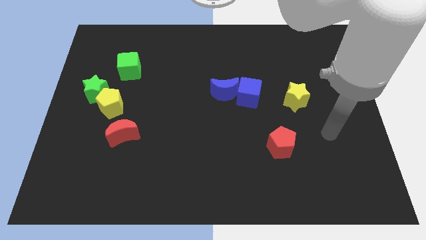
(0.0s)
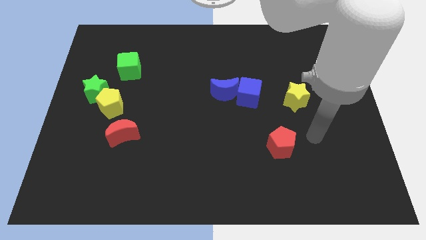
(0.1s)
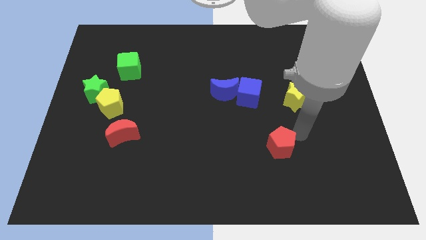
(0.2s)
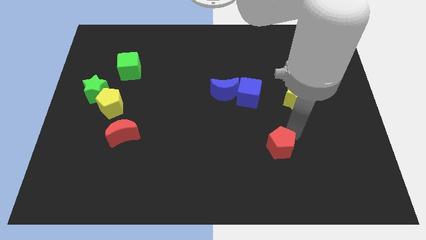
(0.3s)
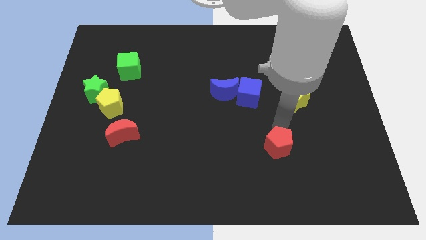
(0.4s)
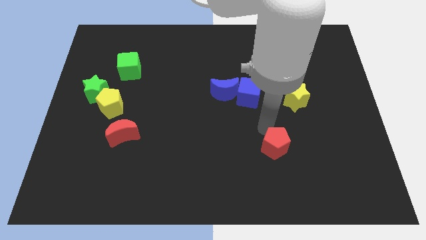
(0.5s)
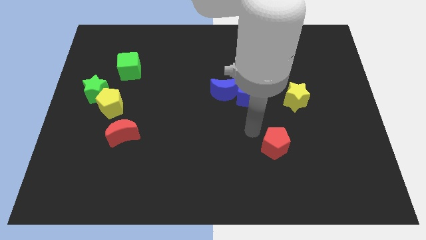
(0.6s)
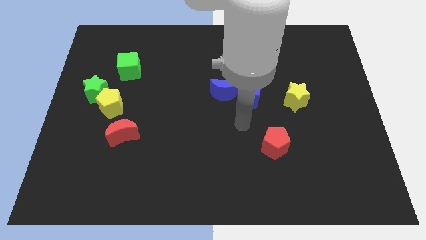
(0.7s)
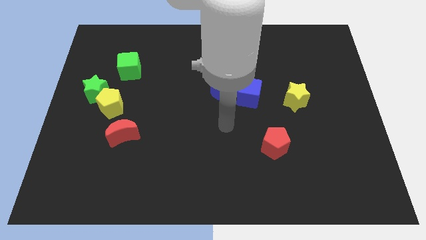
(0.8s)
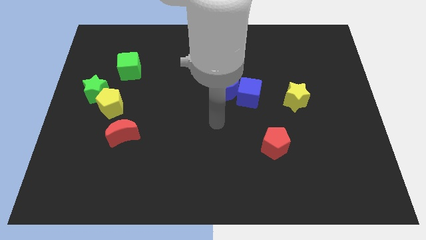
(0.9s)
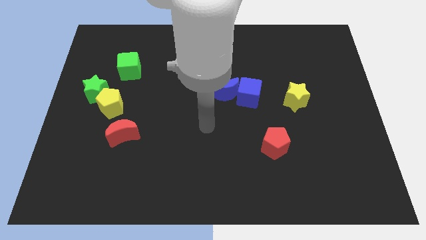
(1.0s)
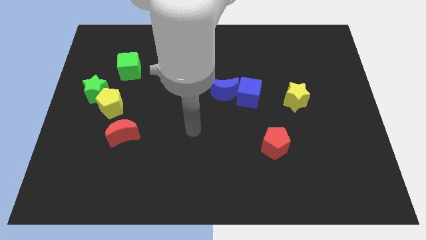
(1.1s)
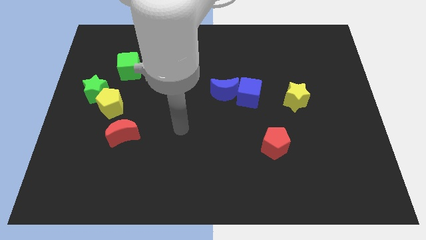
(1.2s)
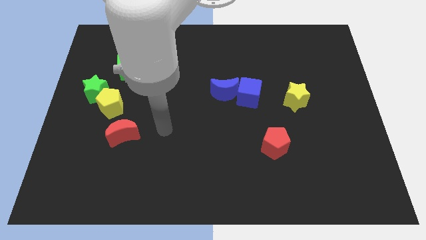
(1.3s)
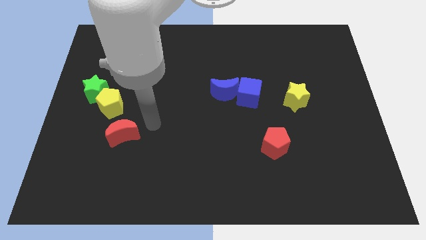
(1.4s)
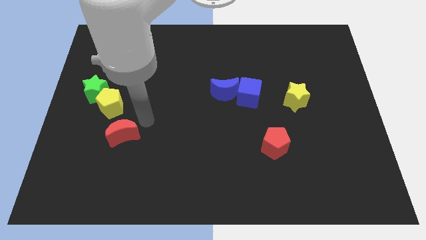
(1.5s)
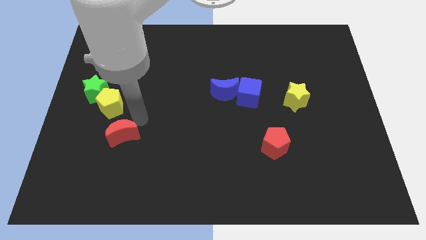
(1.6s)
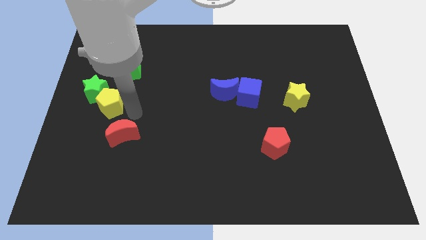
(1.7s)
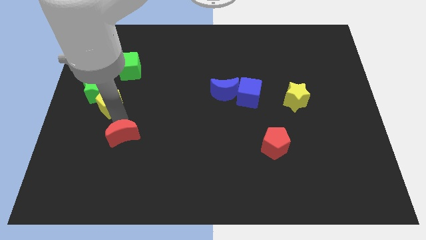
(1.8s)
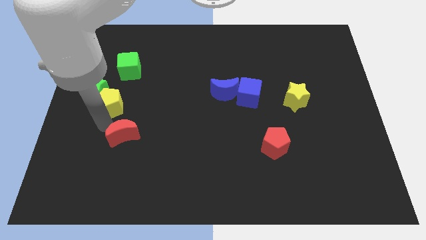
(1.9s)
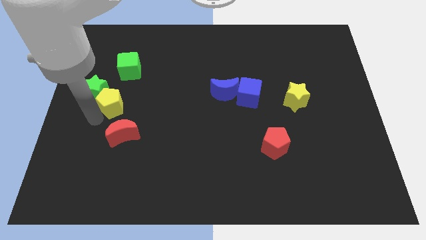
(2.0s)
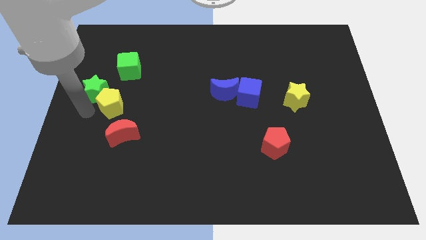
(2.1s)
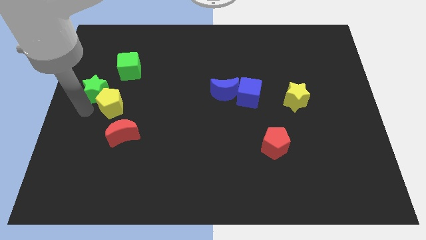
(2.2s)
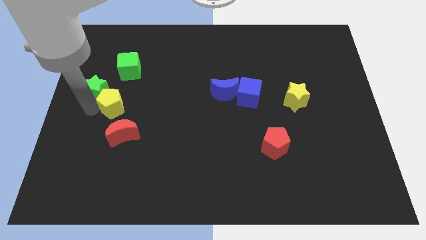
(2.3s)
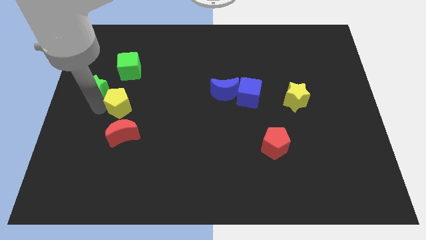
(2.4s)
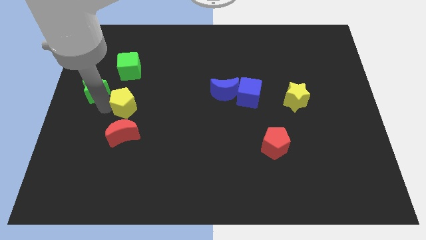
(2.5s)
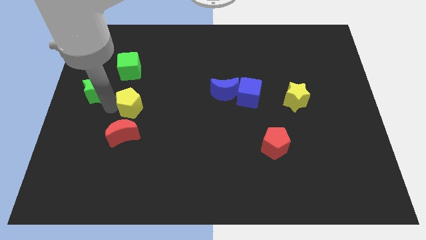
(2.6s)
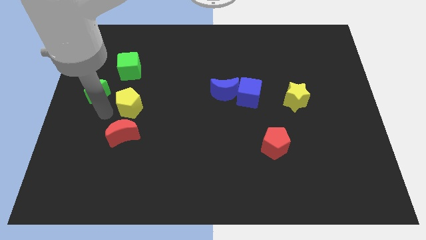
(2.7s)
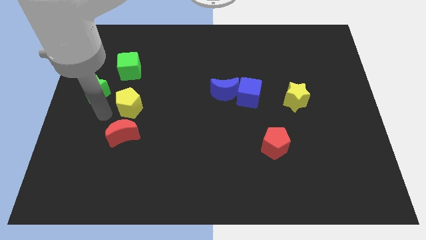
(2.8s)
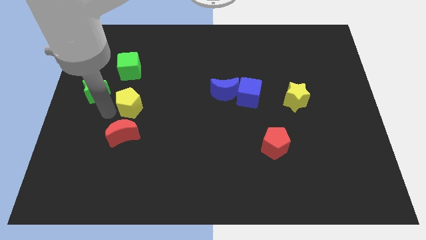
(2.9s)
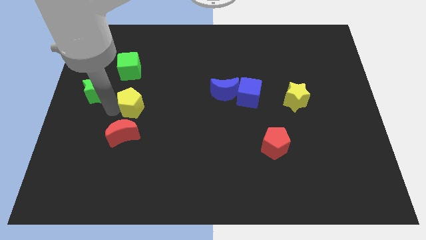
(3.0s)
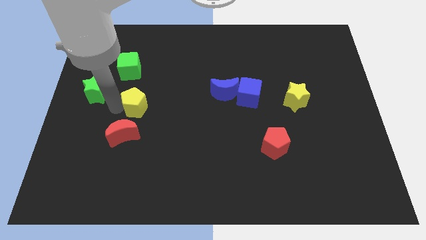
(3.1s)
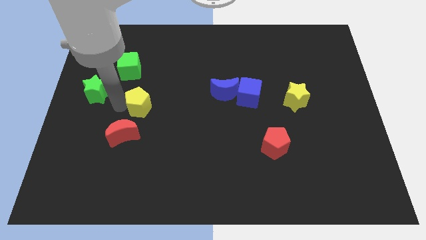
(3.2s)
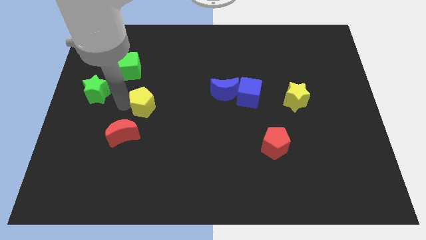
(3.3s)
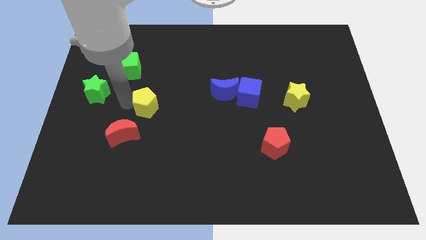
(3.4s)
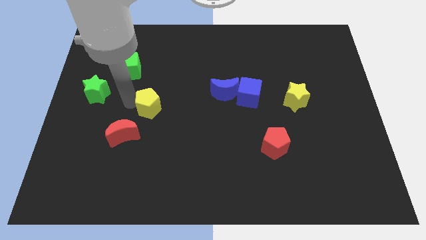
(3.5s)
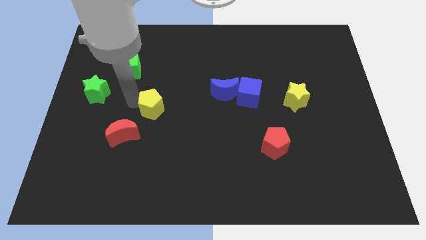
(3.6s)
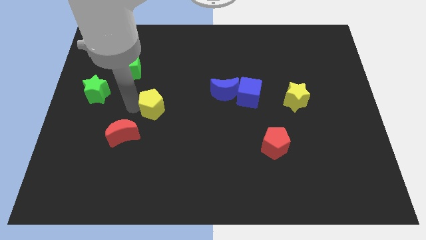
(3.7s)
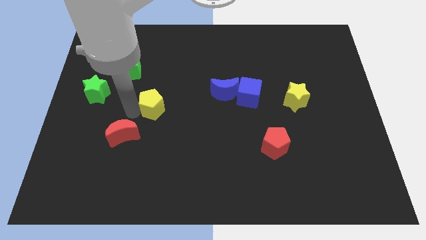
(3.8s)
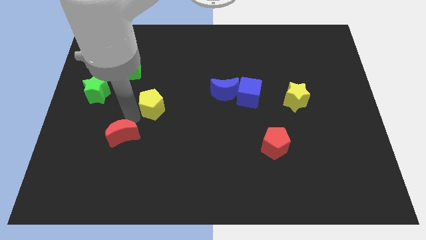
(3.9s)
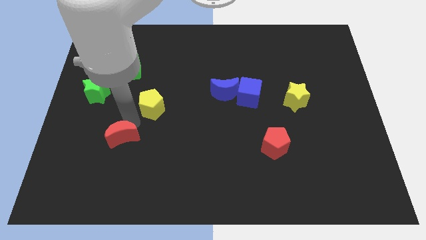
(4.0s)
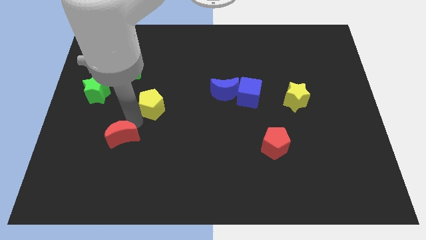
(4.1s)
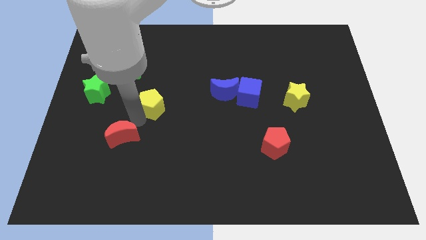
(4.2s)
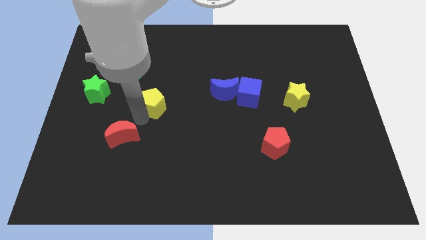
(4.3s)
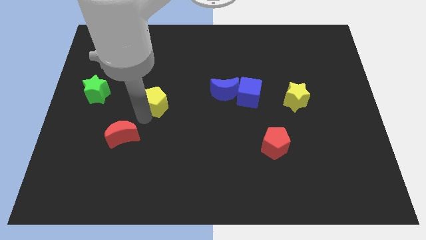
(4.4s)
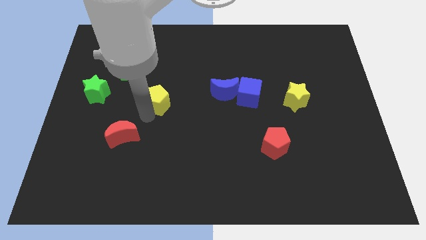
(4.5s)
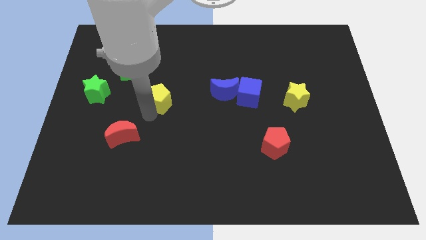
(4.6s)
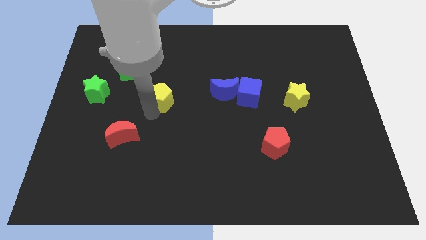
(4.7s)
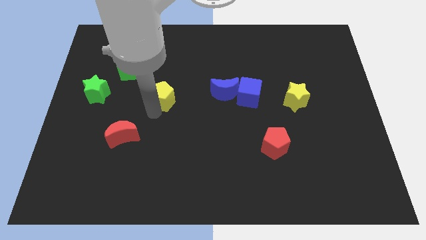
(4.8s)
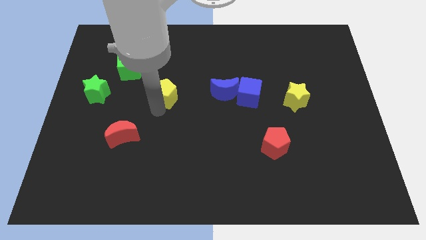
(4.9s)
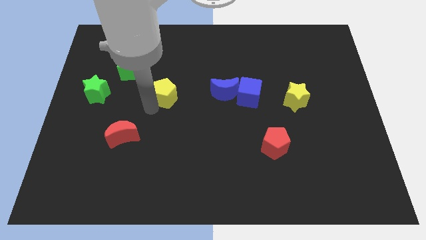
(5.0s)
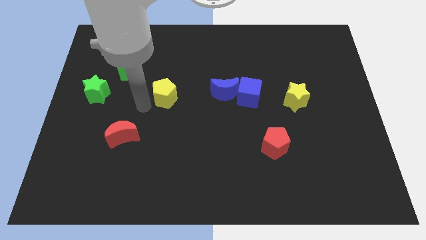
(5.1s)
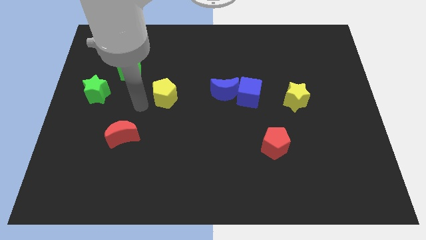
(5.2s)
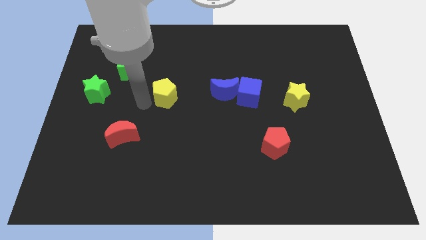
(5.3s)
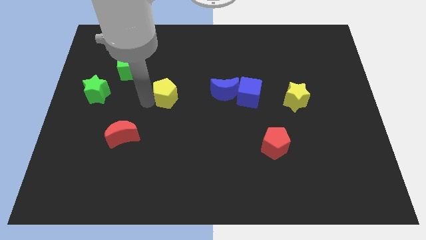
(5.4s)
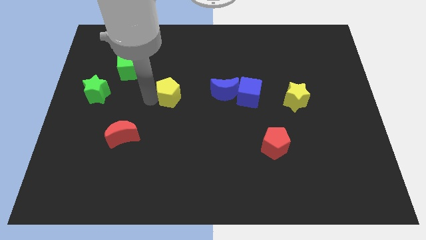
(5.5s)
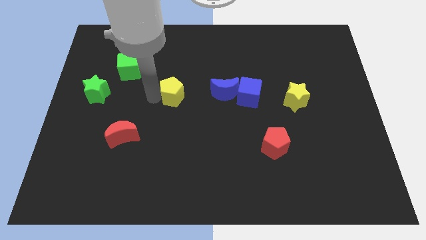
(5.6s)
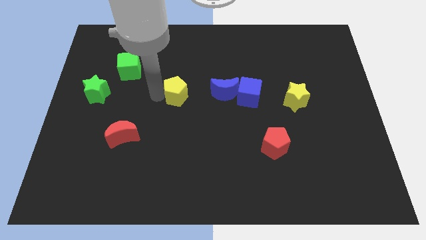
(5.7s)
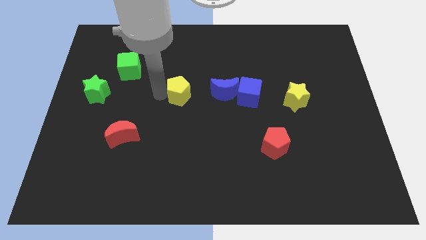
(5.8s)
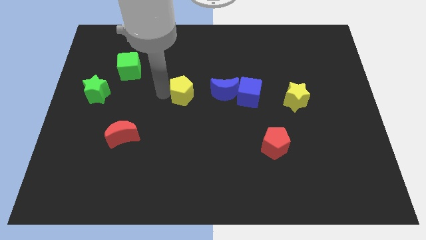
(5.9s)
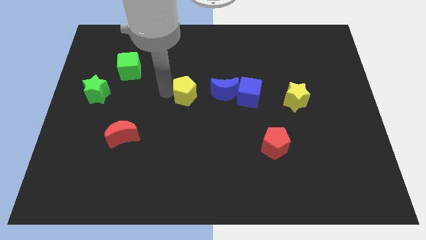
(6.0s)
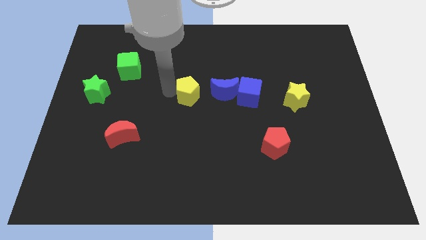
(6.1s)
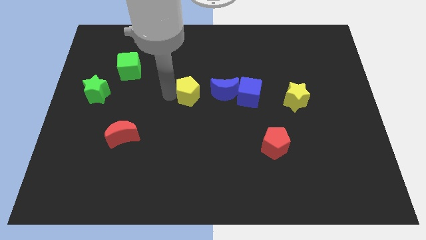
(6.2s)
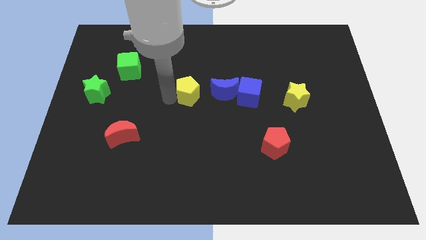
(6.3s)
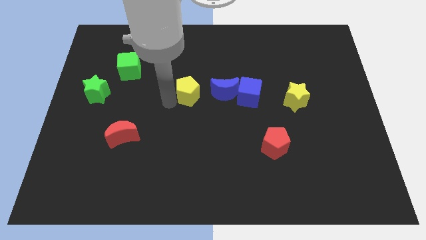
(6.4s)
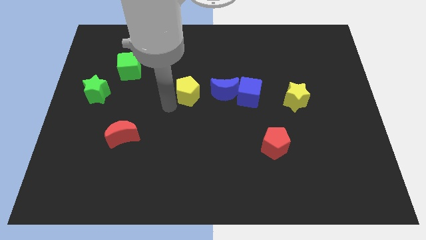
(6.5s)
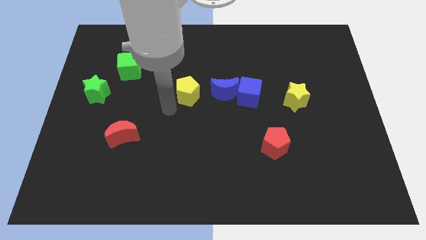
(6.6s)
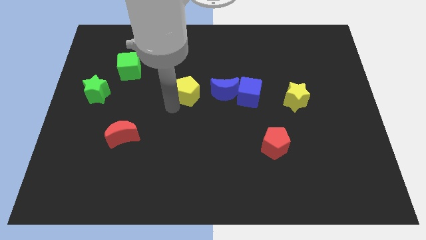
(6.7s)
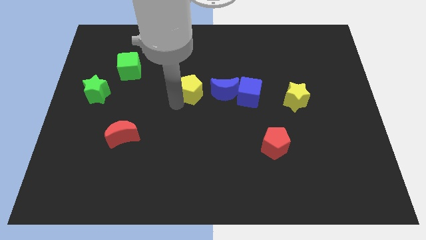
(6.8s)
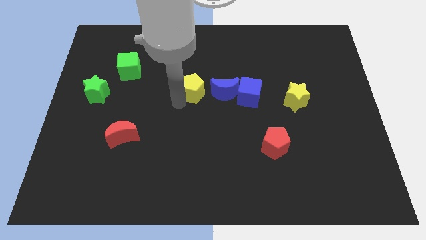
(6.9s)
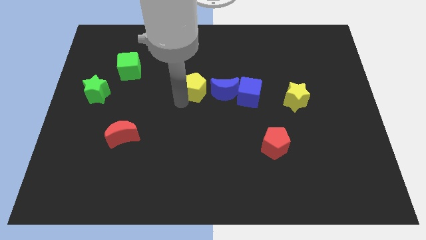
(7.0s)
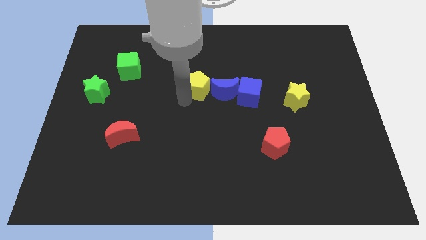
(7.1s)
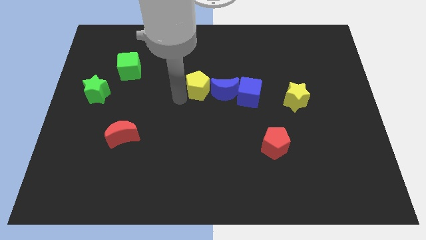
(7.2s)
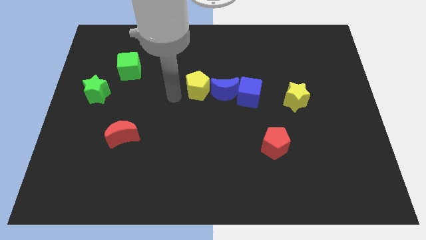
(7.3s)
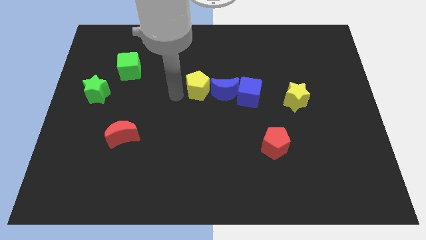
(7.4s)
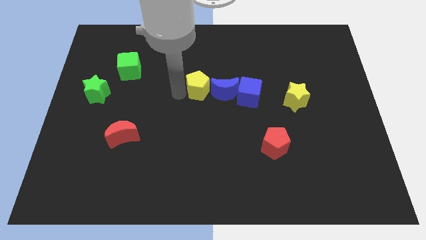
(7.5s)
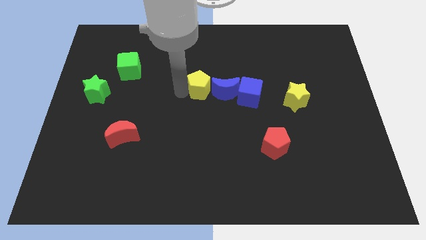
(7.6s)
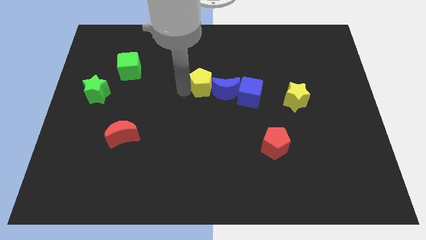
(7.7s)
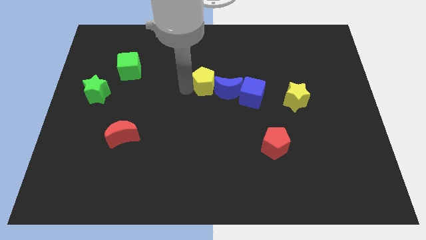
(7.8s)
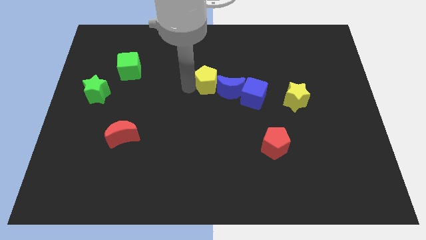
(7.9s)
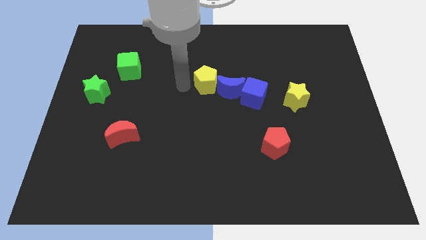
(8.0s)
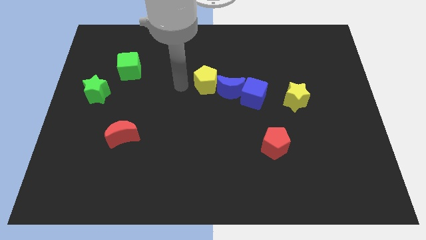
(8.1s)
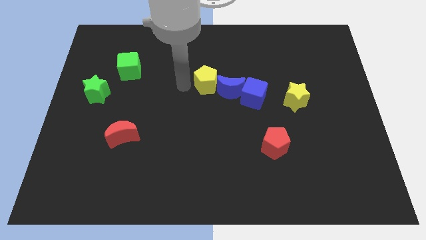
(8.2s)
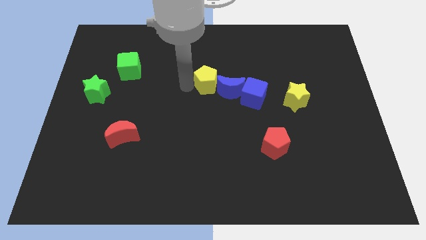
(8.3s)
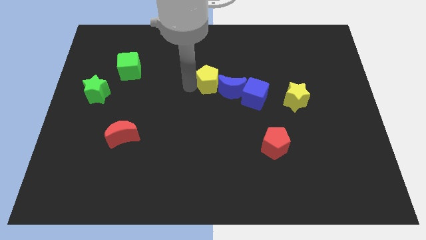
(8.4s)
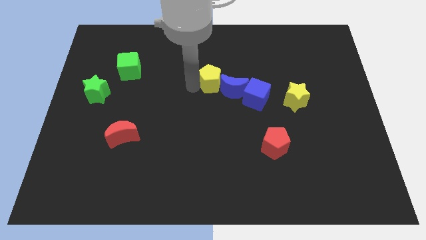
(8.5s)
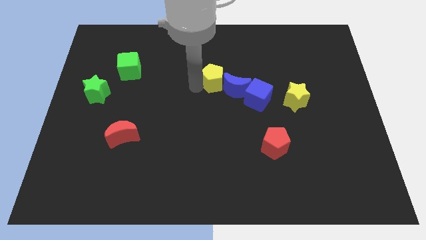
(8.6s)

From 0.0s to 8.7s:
move the yellow pentagon diagonally up and to the left of the blue cube
